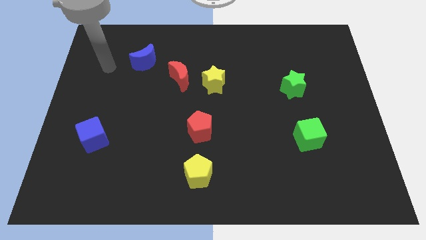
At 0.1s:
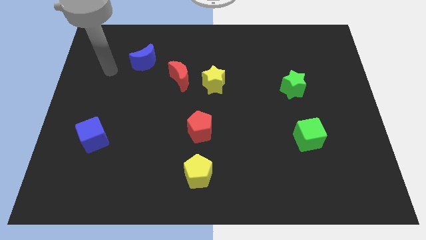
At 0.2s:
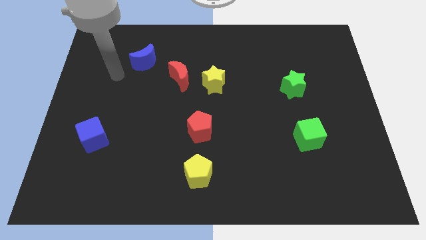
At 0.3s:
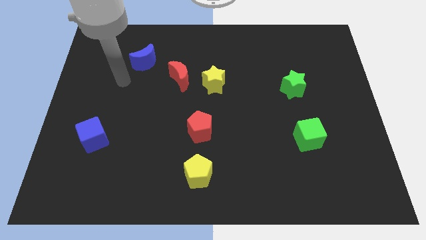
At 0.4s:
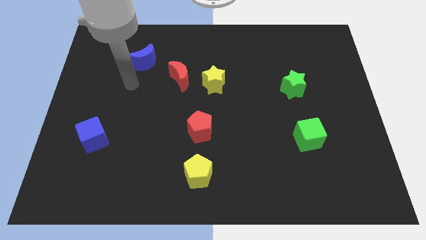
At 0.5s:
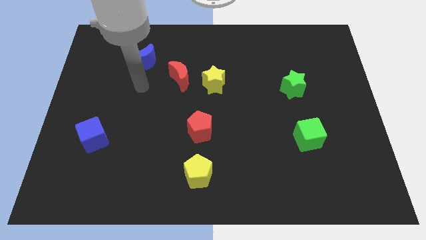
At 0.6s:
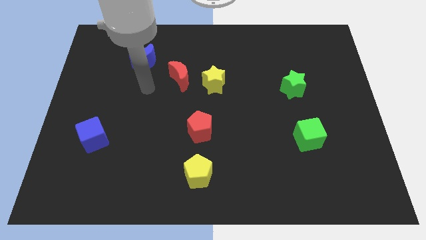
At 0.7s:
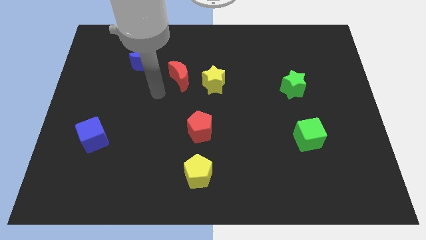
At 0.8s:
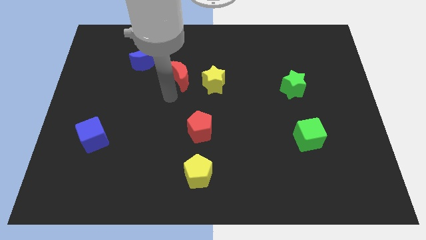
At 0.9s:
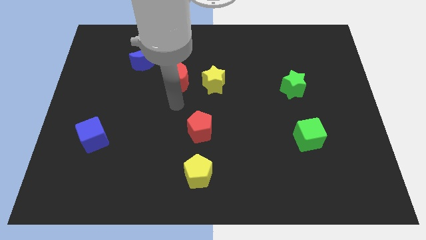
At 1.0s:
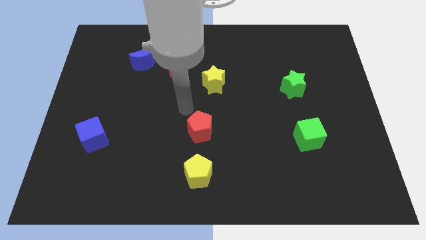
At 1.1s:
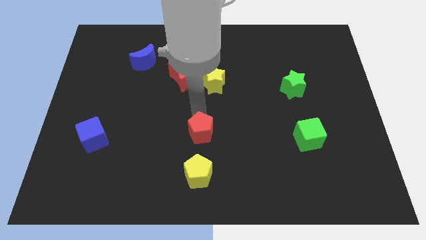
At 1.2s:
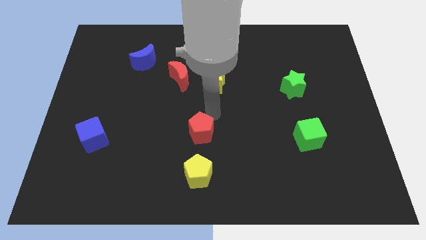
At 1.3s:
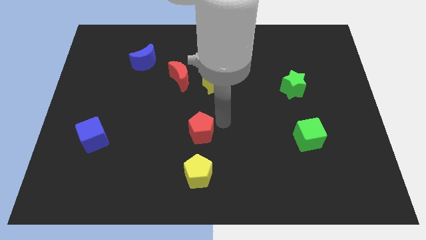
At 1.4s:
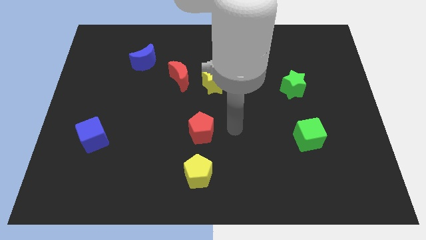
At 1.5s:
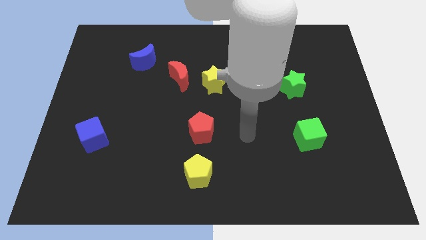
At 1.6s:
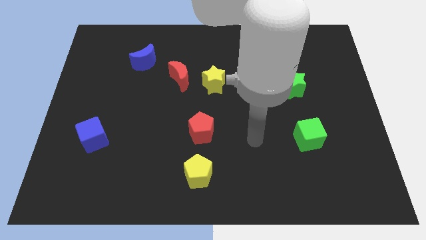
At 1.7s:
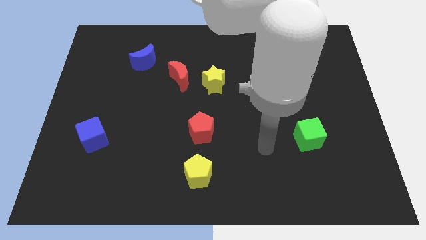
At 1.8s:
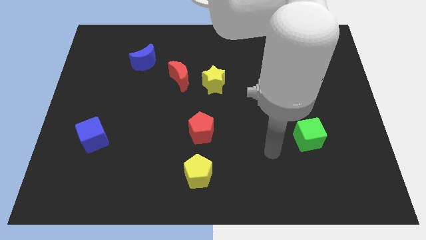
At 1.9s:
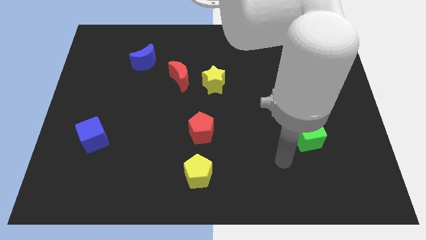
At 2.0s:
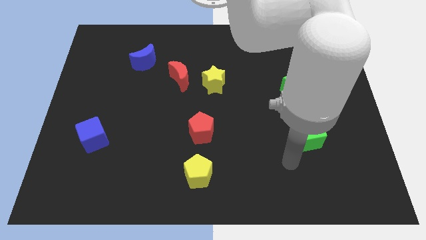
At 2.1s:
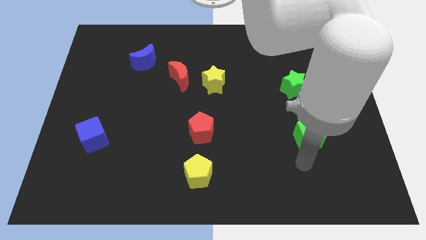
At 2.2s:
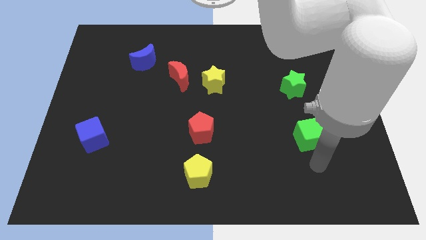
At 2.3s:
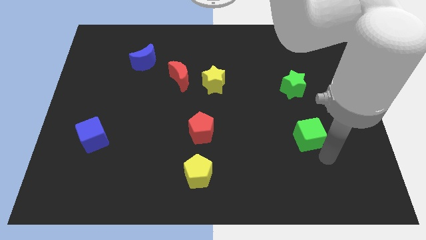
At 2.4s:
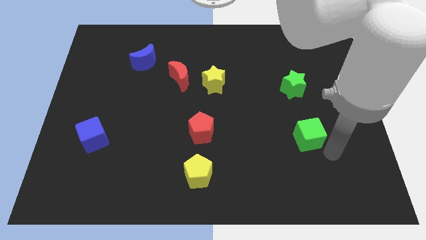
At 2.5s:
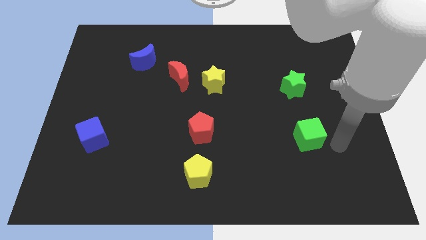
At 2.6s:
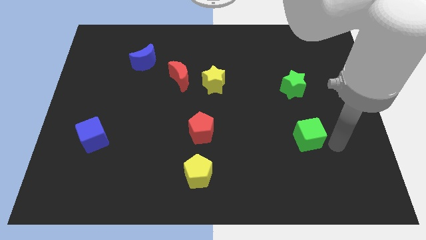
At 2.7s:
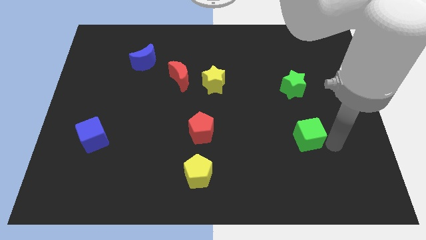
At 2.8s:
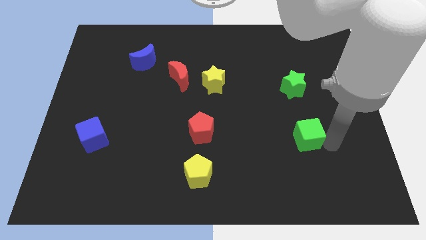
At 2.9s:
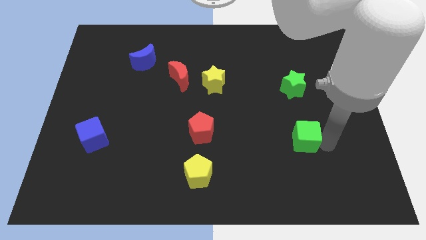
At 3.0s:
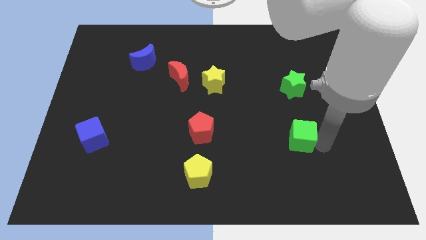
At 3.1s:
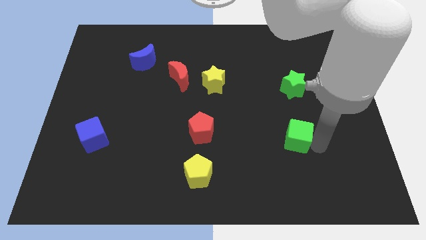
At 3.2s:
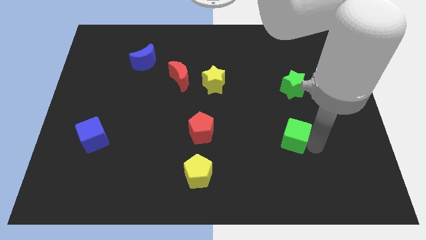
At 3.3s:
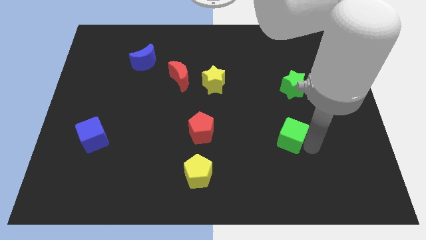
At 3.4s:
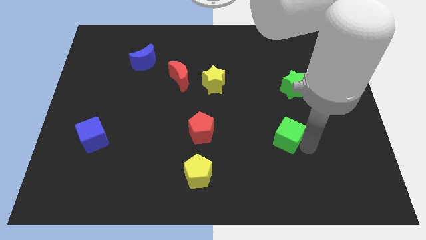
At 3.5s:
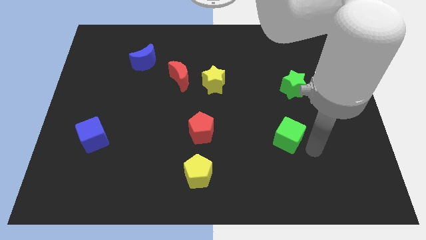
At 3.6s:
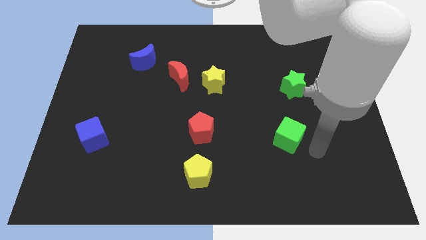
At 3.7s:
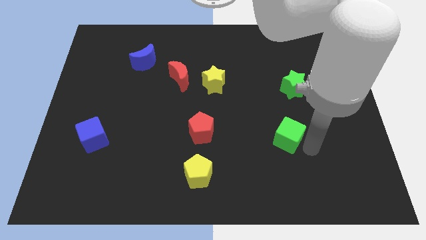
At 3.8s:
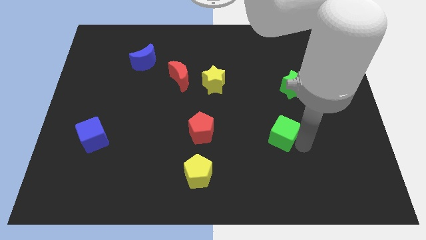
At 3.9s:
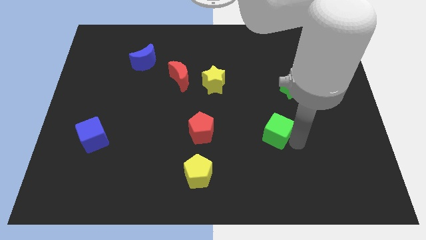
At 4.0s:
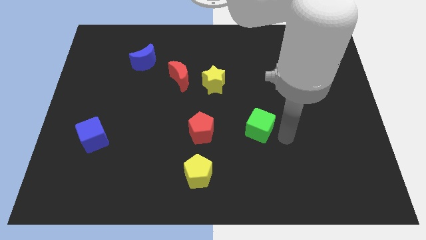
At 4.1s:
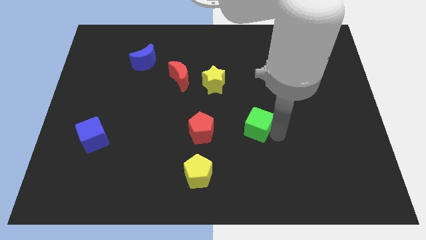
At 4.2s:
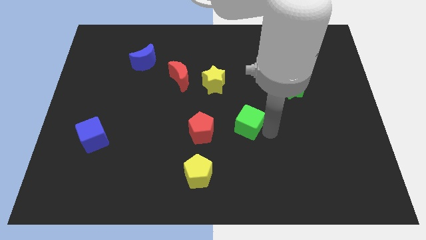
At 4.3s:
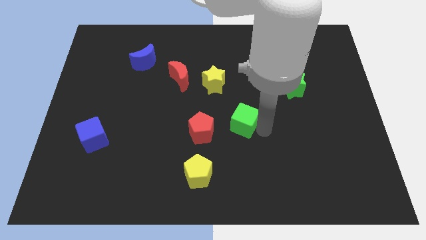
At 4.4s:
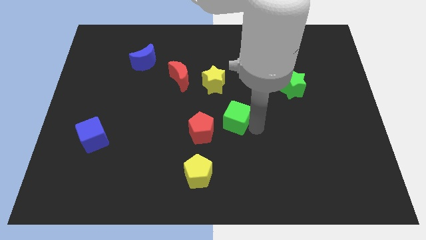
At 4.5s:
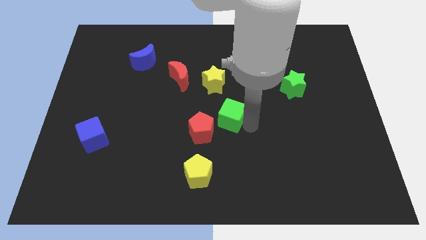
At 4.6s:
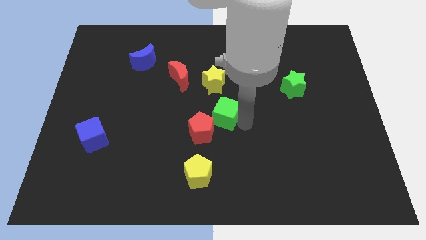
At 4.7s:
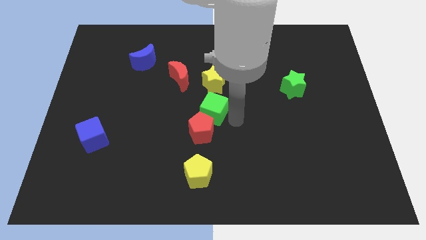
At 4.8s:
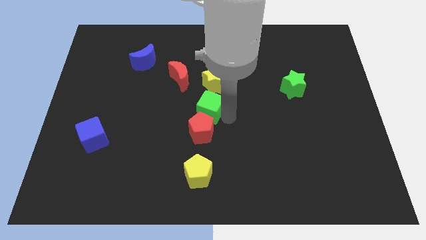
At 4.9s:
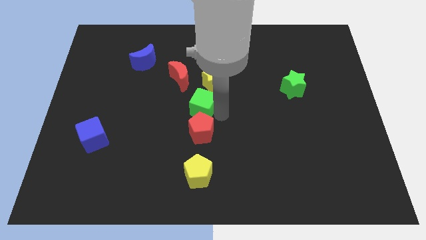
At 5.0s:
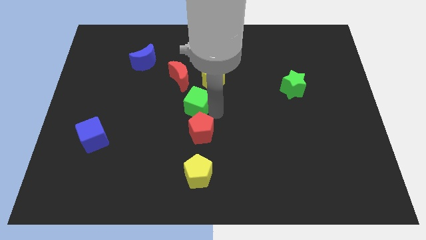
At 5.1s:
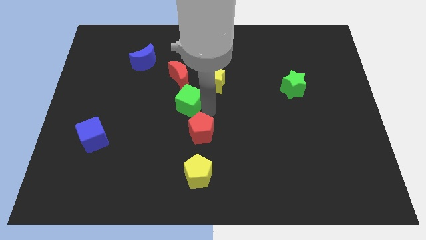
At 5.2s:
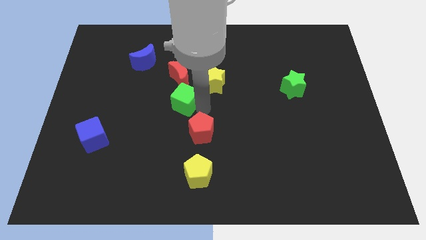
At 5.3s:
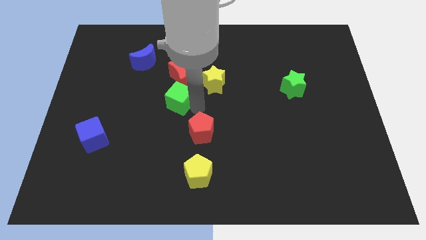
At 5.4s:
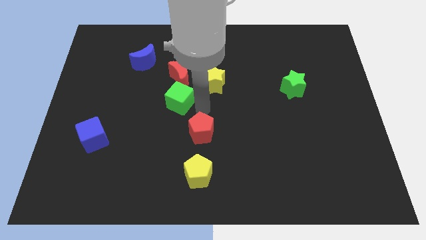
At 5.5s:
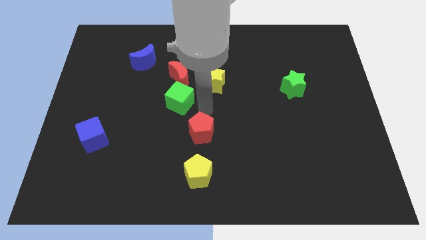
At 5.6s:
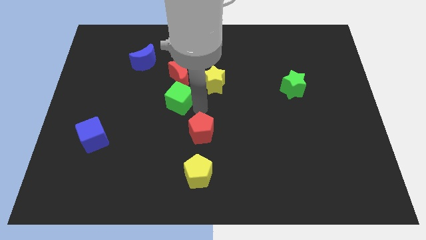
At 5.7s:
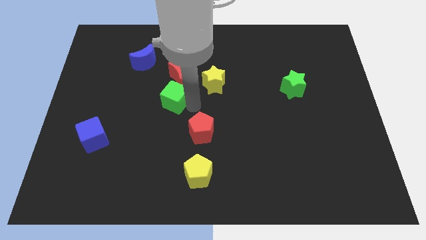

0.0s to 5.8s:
push the green cube to the bottom left side of the red moon

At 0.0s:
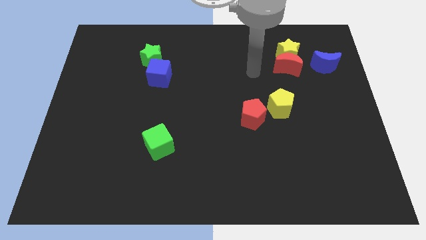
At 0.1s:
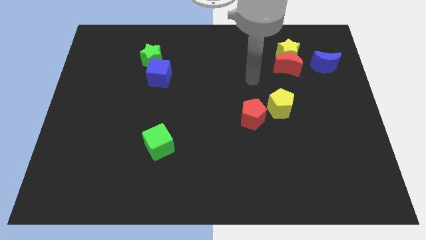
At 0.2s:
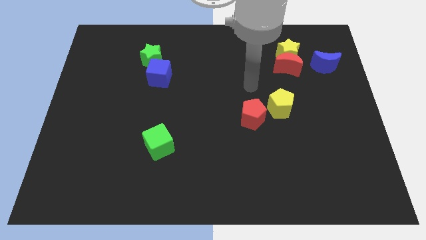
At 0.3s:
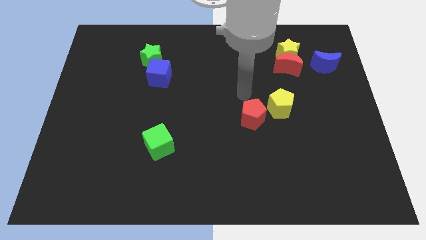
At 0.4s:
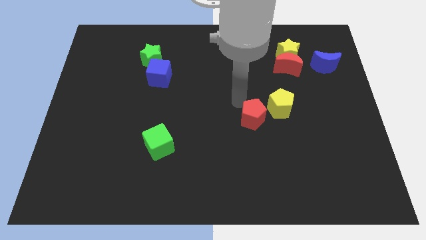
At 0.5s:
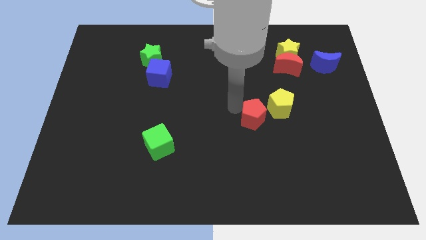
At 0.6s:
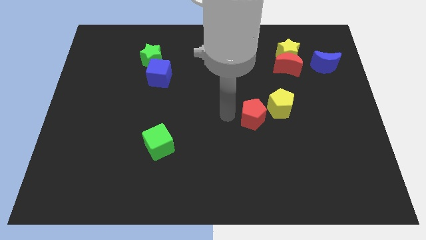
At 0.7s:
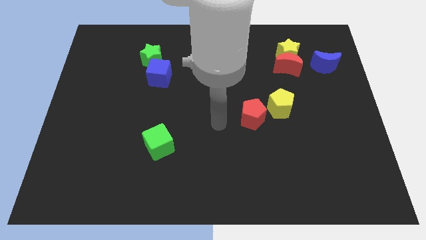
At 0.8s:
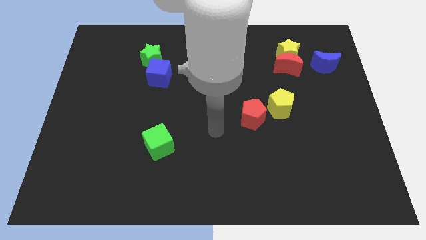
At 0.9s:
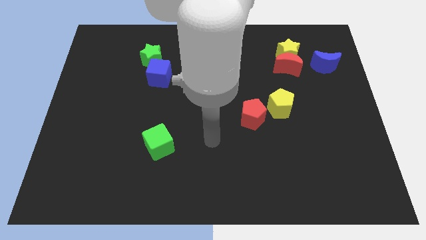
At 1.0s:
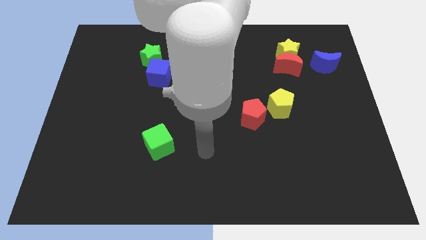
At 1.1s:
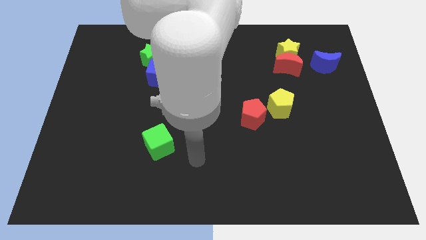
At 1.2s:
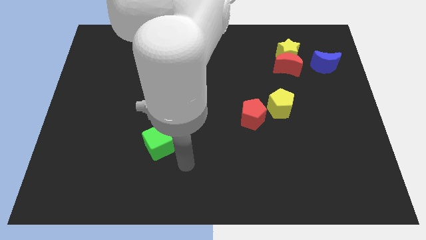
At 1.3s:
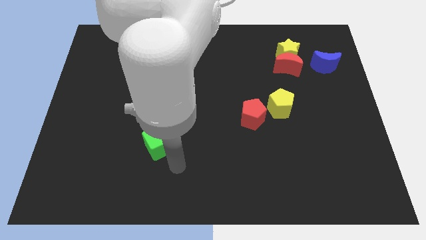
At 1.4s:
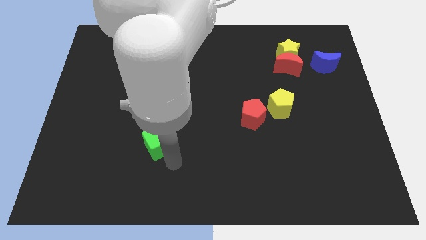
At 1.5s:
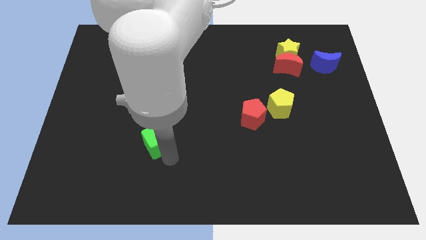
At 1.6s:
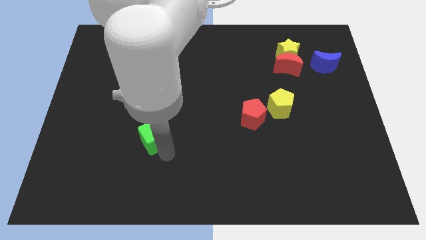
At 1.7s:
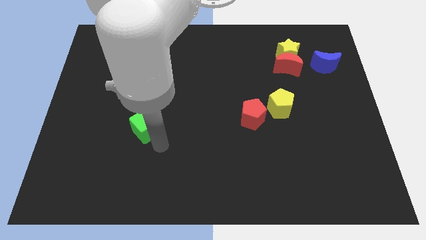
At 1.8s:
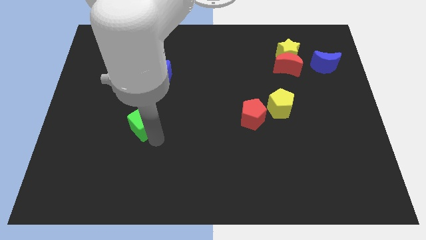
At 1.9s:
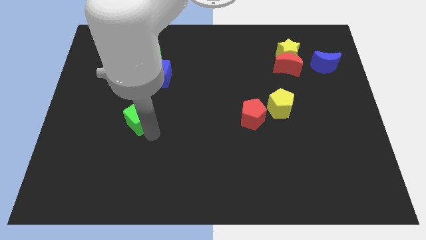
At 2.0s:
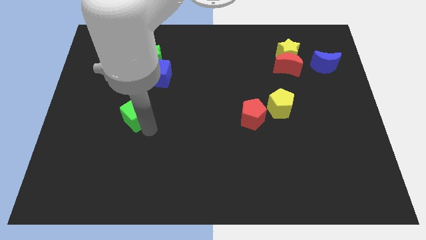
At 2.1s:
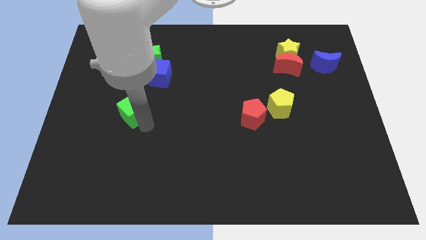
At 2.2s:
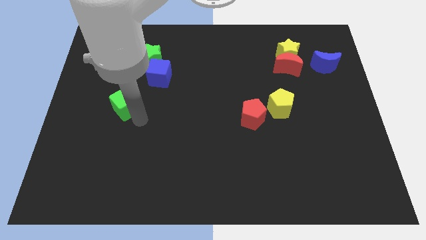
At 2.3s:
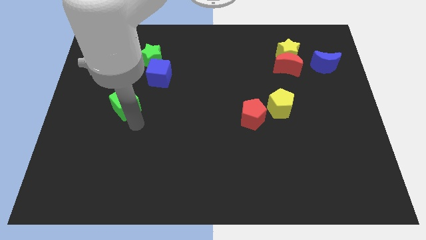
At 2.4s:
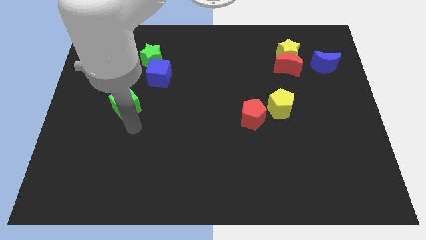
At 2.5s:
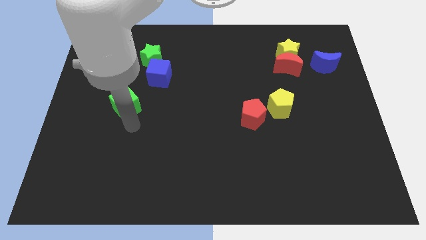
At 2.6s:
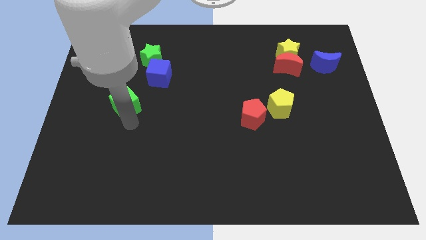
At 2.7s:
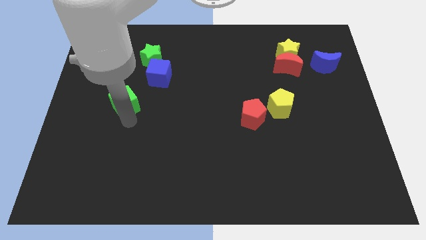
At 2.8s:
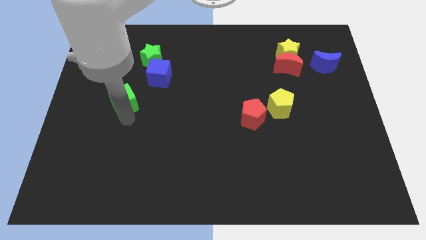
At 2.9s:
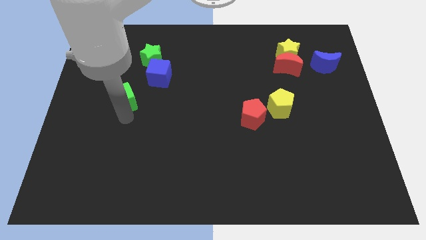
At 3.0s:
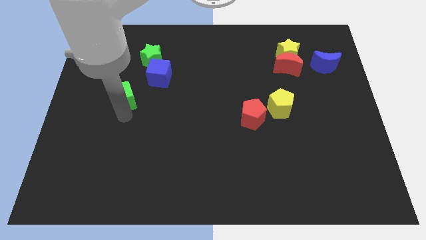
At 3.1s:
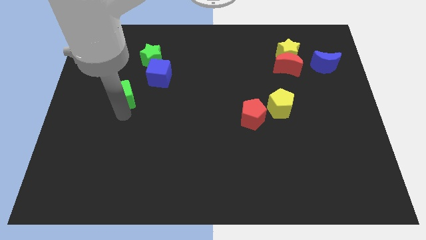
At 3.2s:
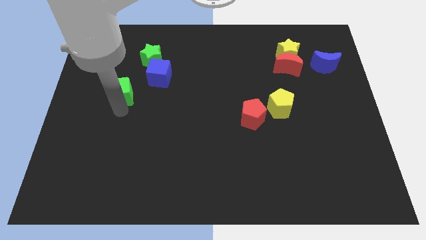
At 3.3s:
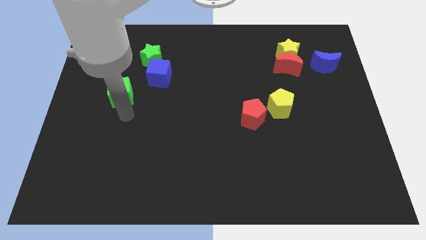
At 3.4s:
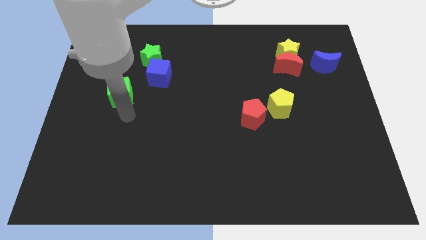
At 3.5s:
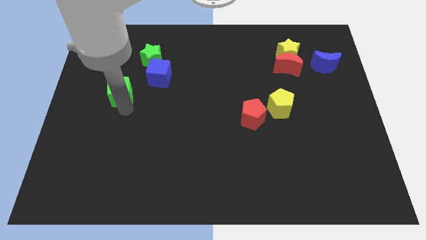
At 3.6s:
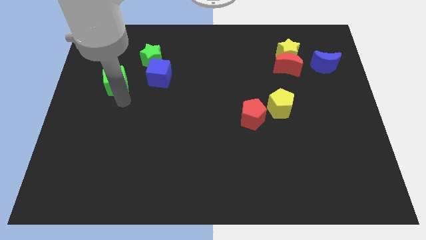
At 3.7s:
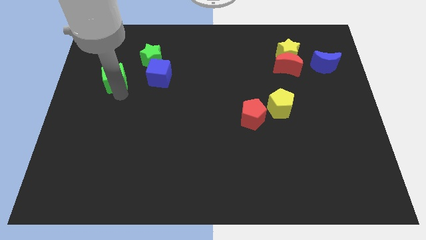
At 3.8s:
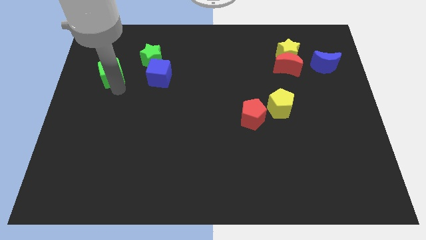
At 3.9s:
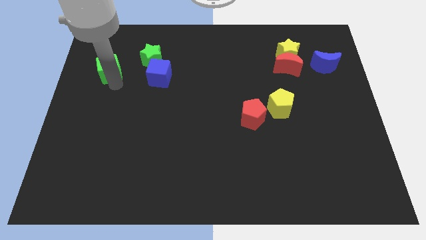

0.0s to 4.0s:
move the green cube left of the green star
